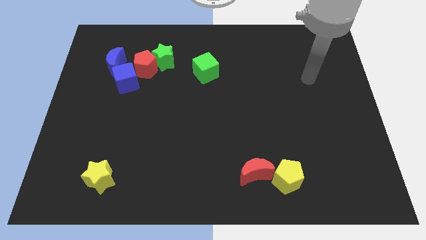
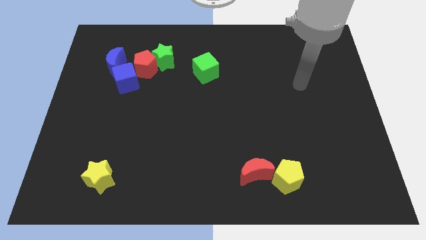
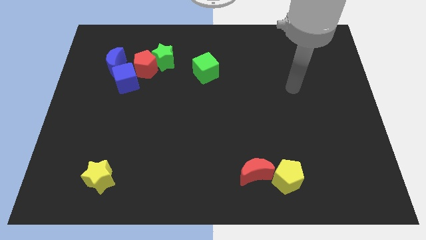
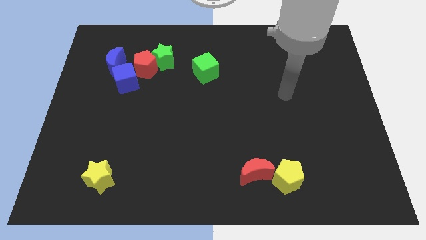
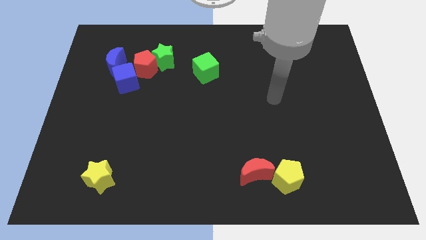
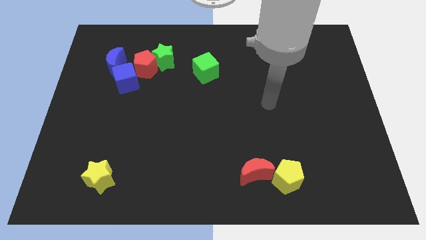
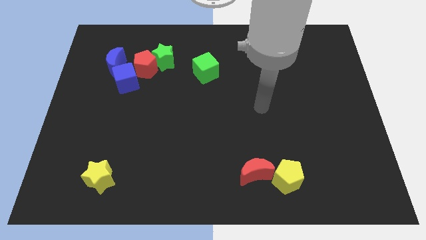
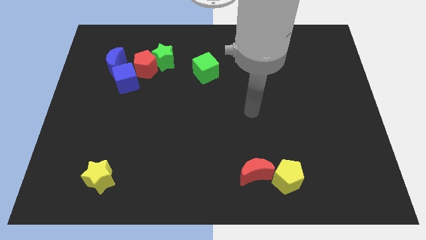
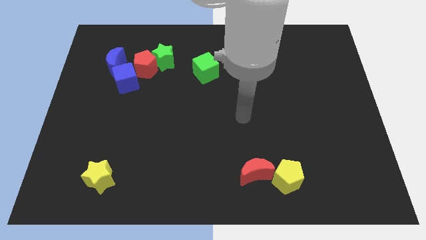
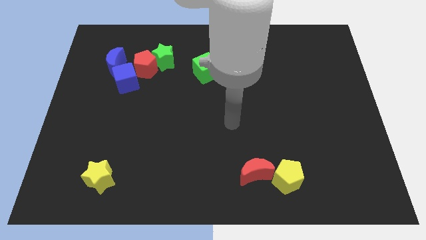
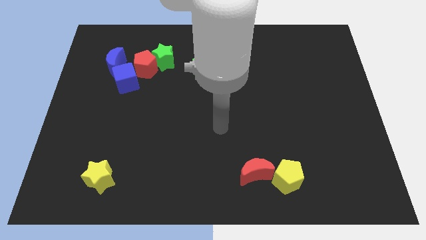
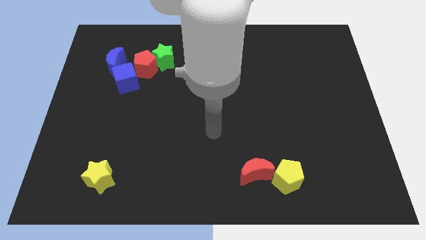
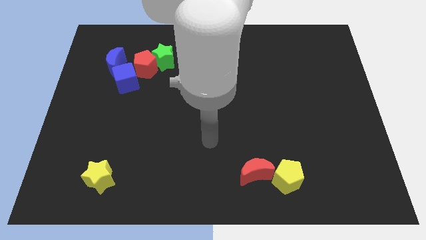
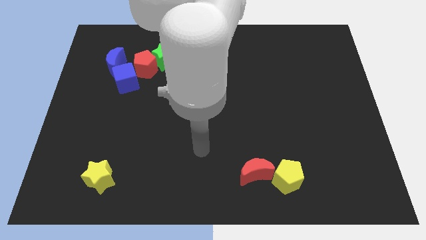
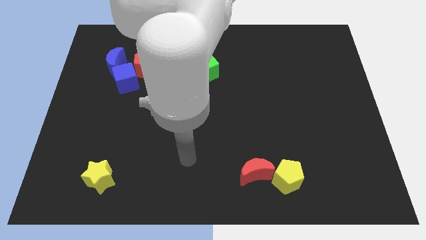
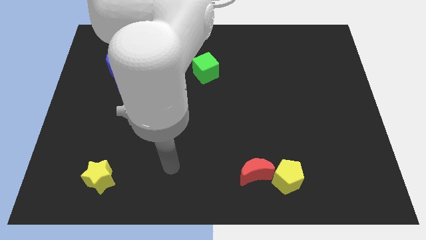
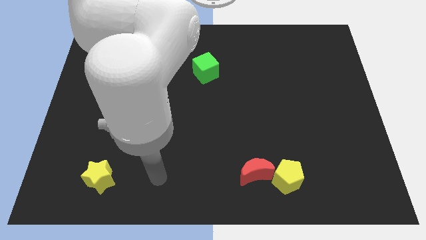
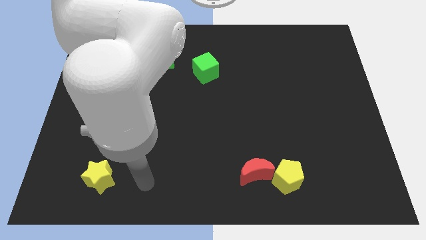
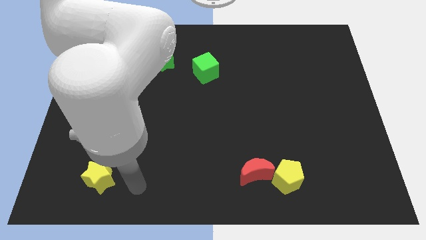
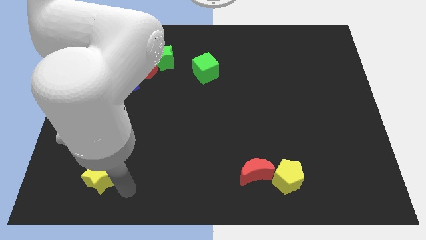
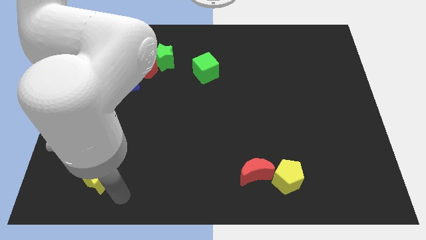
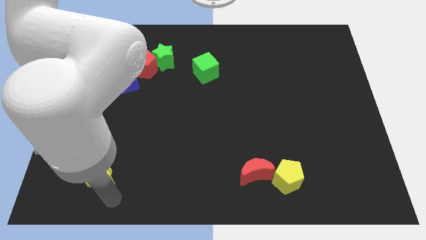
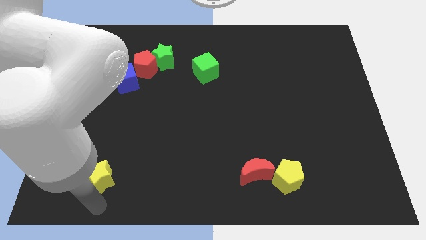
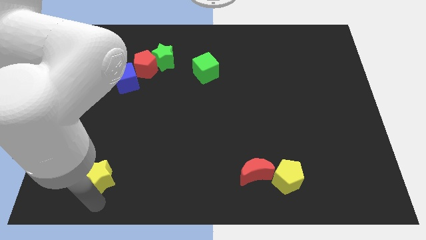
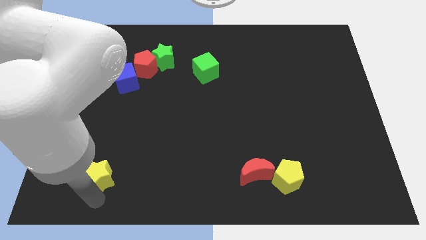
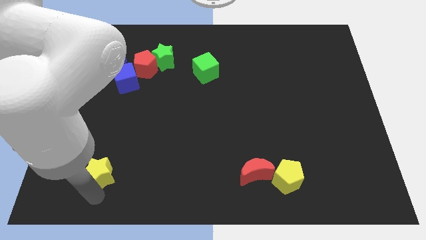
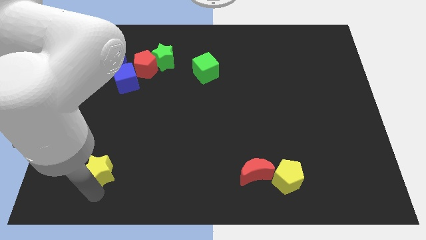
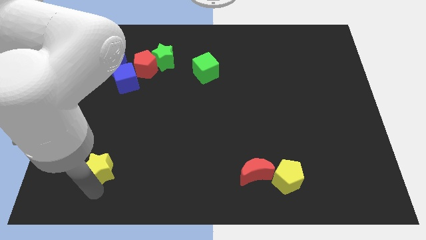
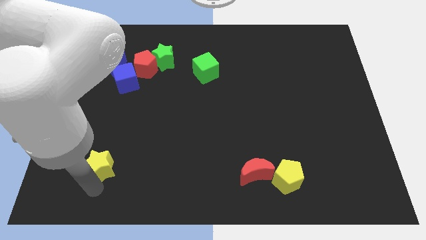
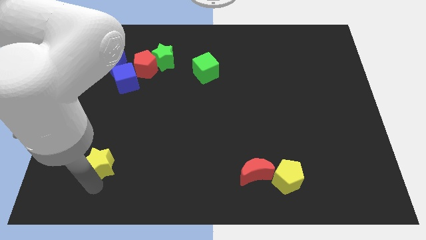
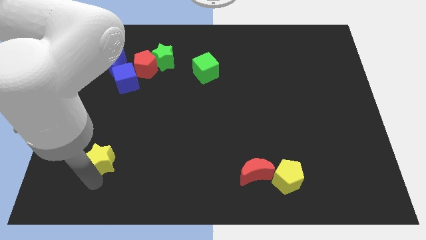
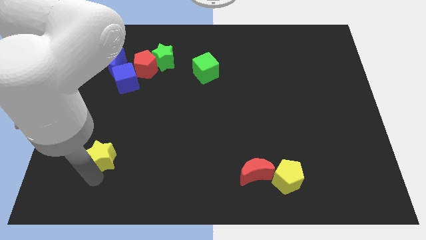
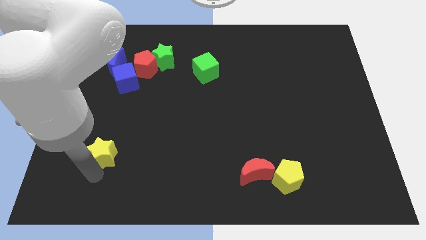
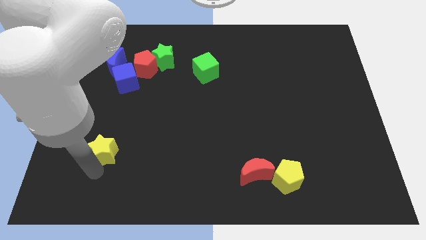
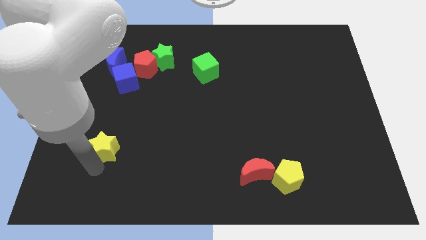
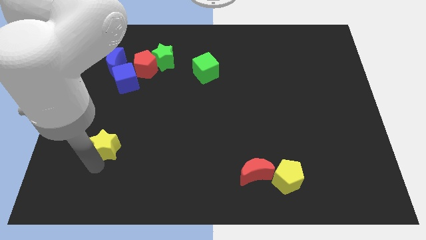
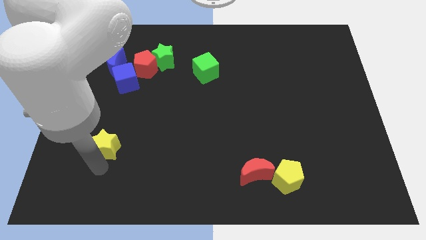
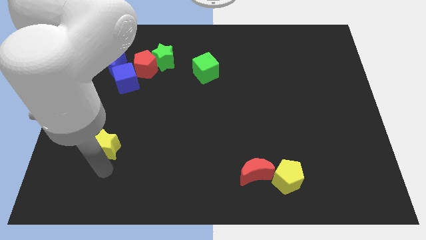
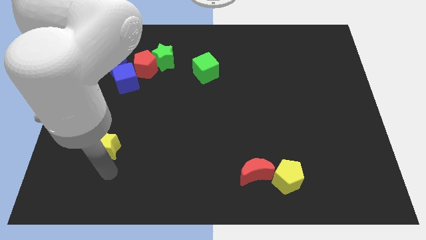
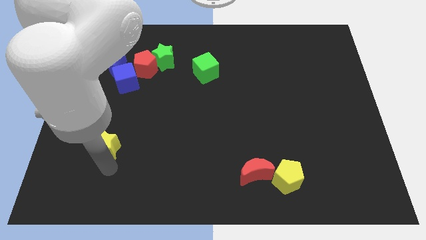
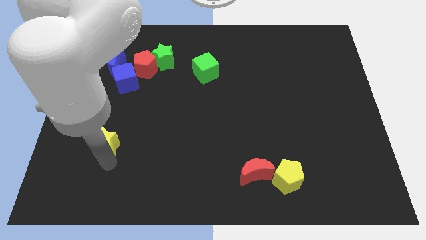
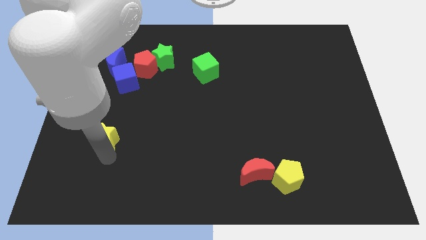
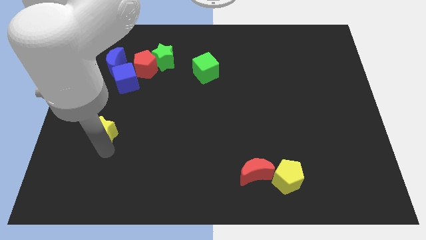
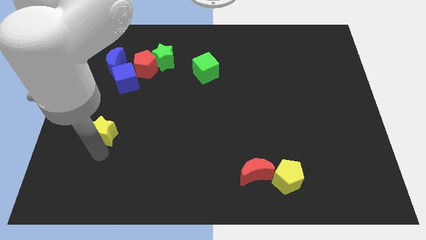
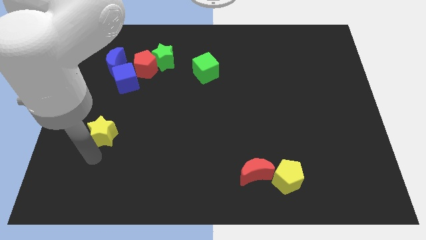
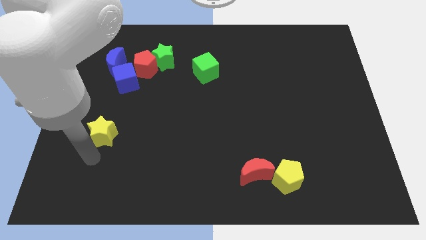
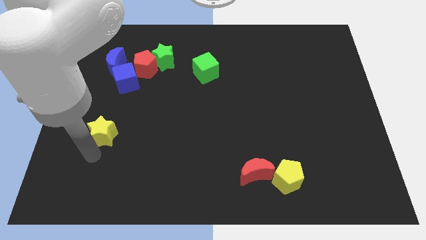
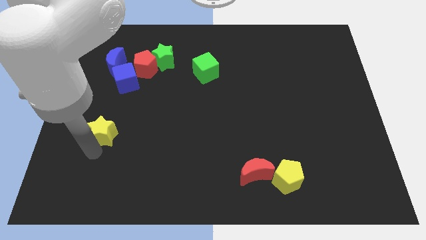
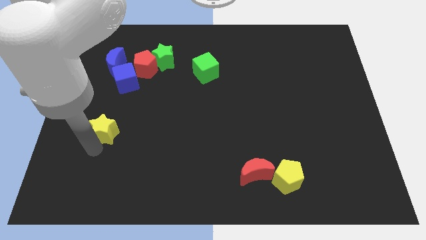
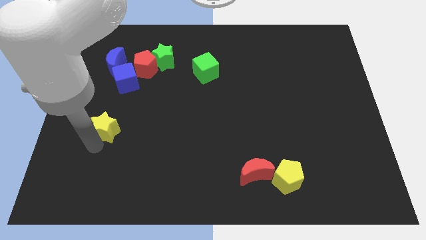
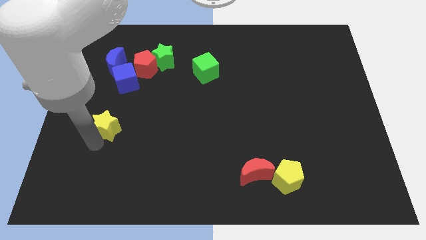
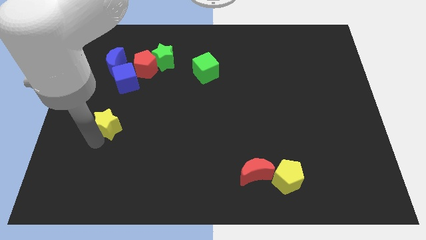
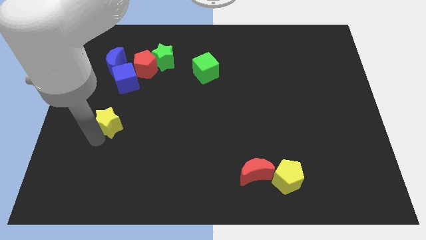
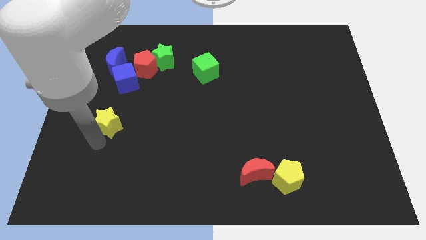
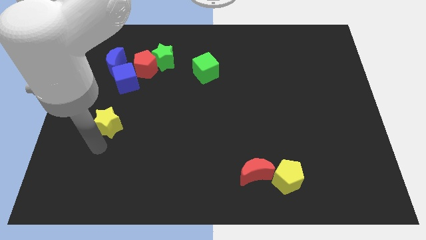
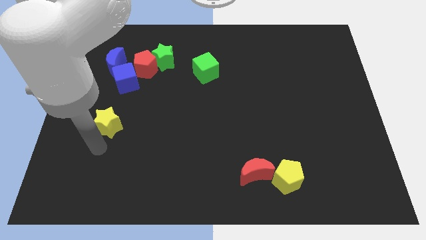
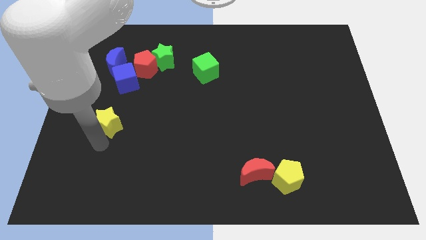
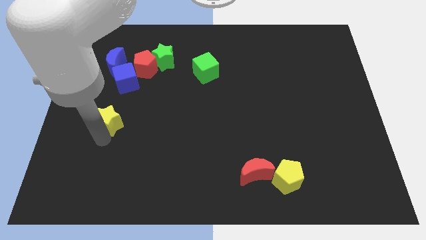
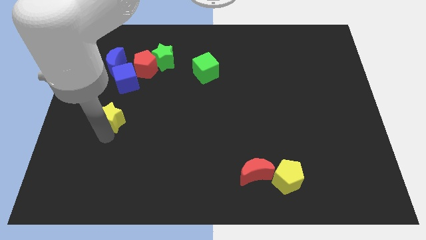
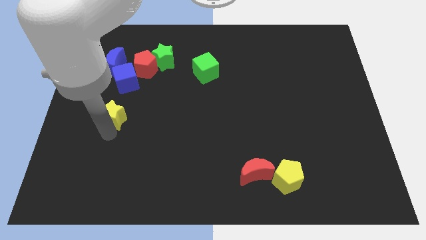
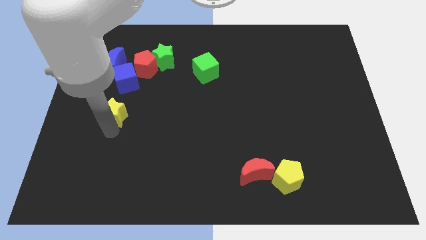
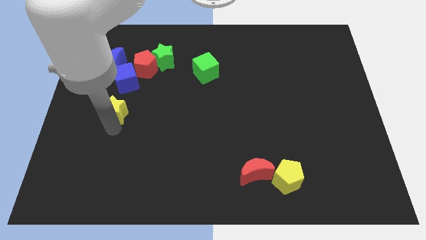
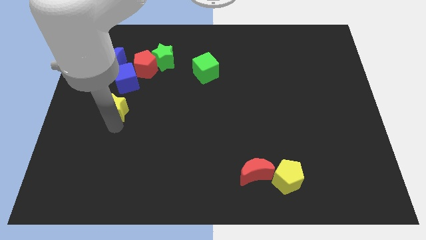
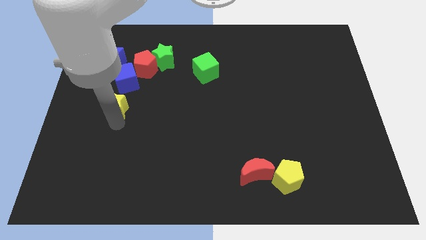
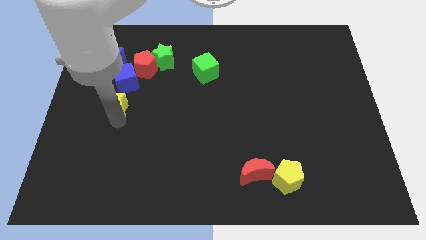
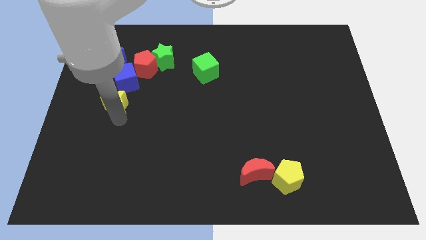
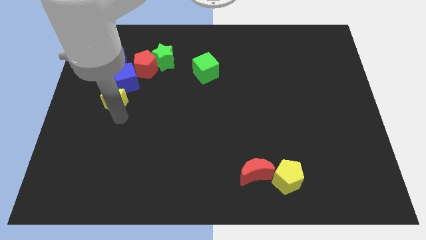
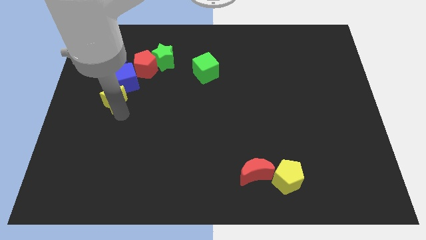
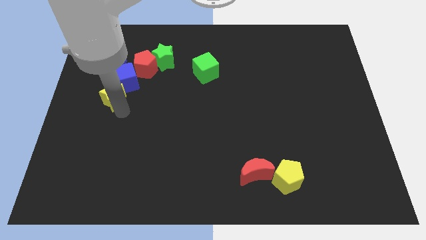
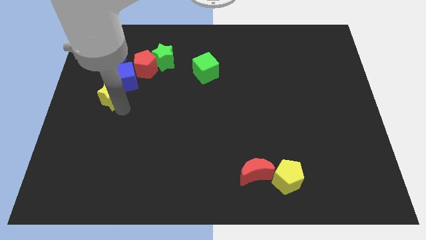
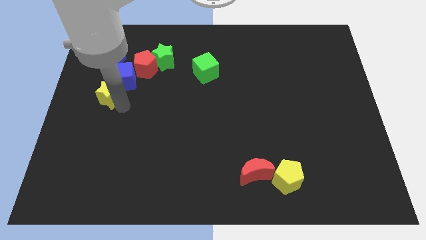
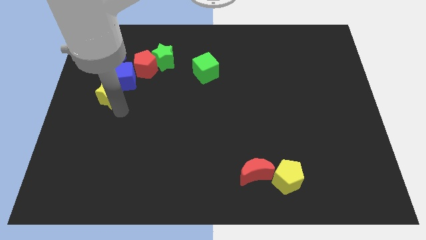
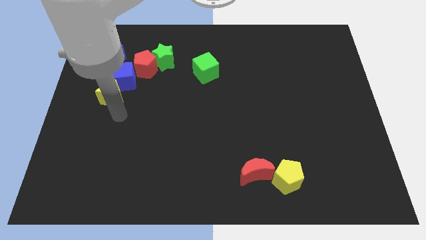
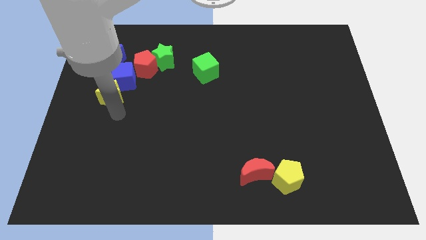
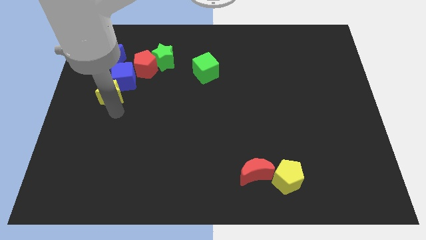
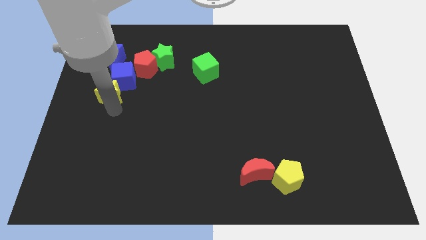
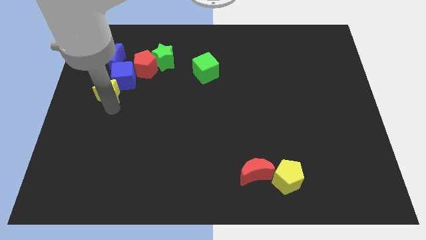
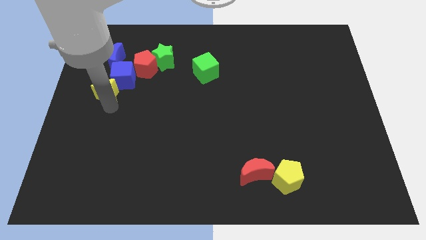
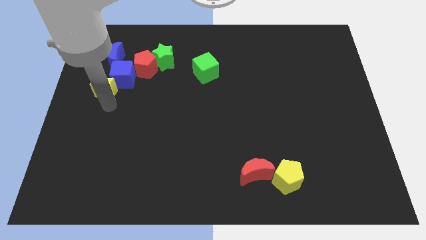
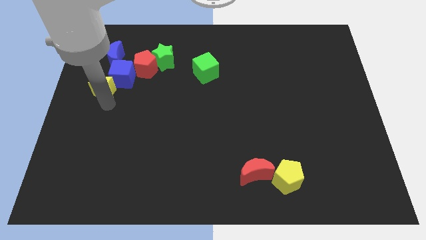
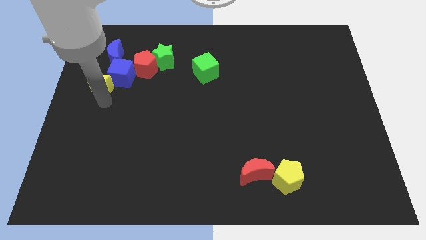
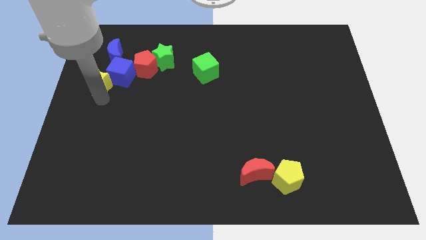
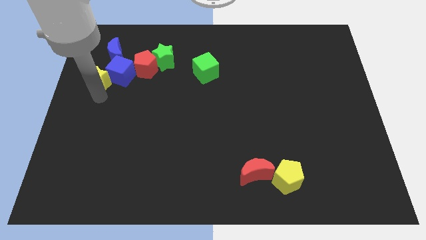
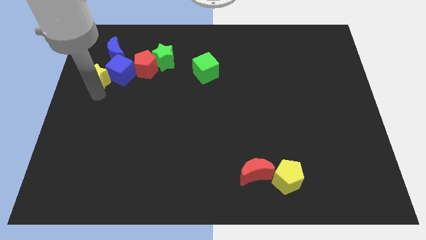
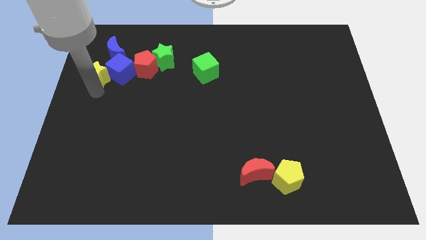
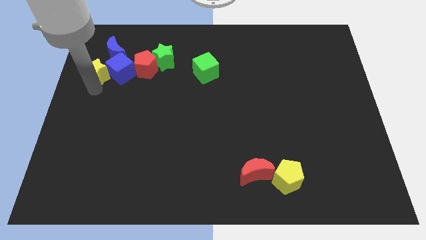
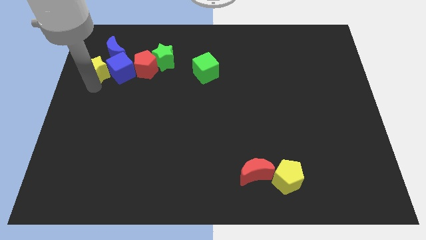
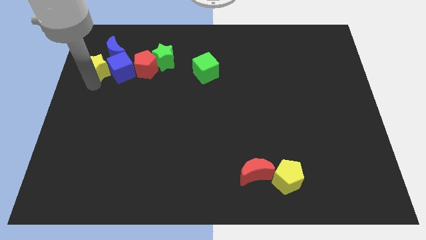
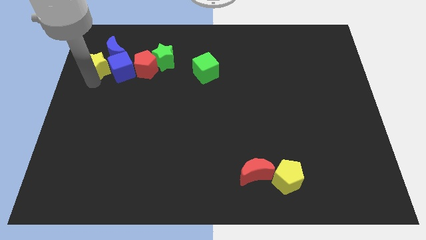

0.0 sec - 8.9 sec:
slide the yellow star to the blue moon
